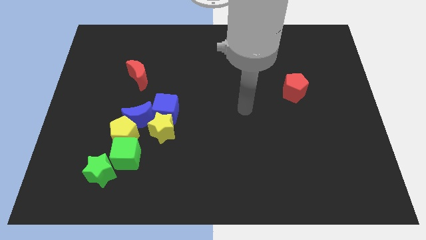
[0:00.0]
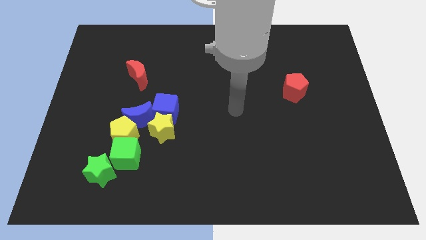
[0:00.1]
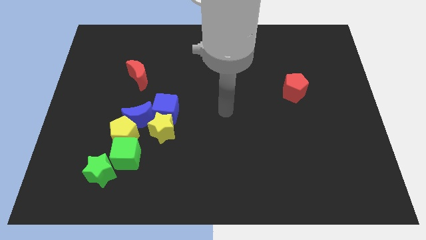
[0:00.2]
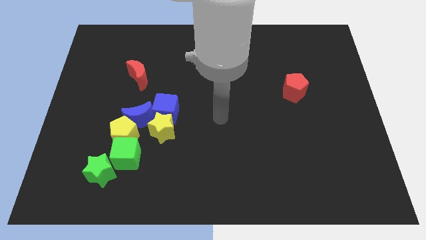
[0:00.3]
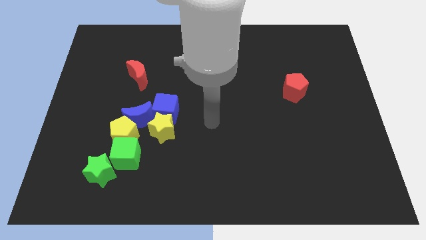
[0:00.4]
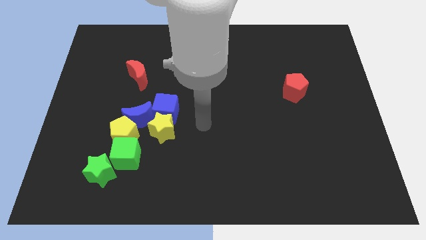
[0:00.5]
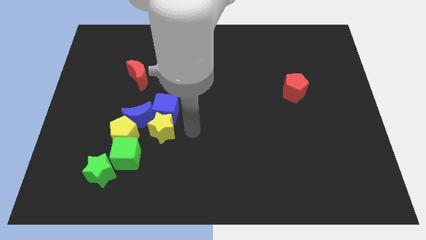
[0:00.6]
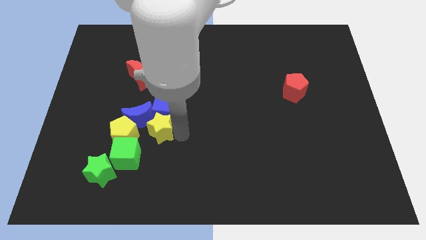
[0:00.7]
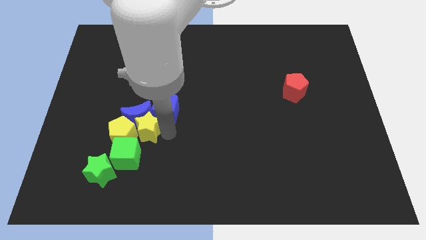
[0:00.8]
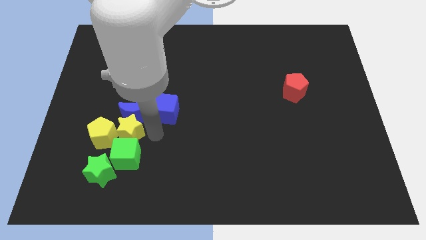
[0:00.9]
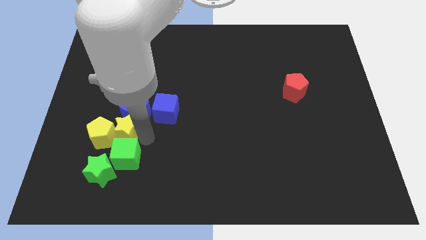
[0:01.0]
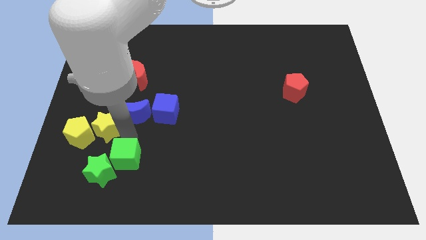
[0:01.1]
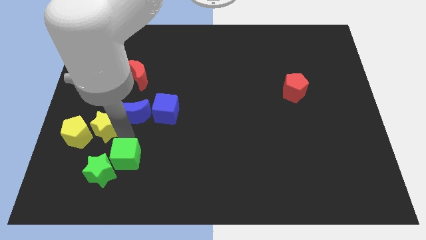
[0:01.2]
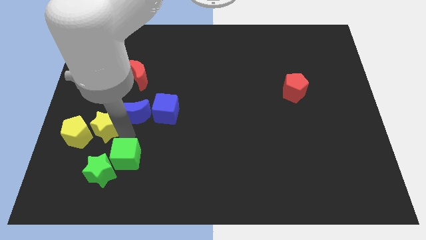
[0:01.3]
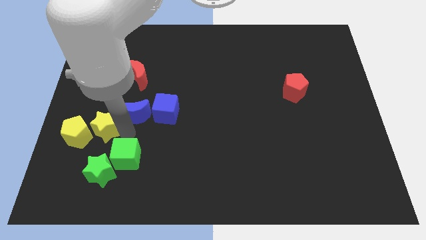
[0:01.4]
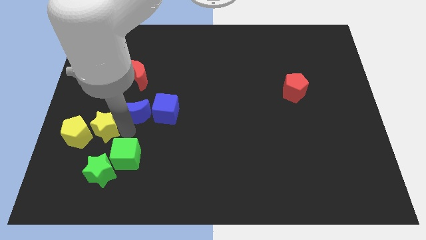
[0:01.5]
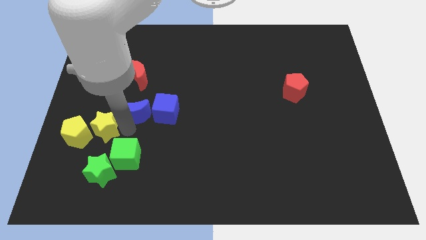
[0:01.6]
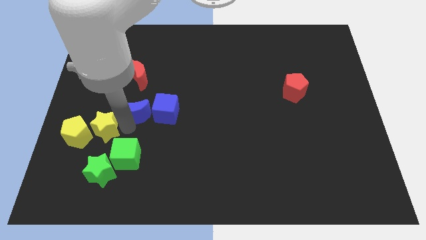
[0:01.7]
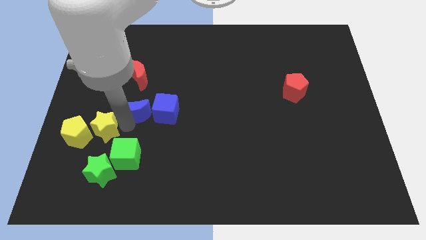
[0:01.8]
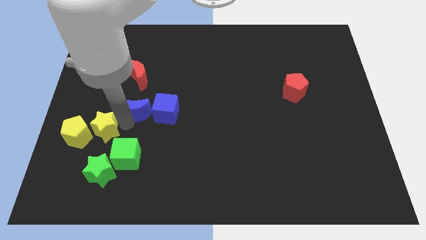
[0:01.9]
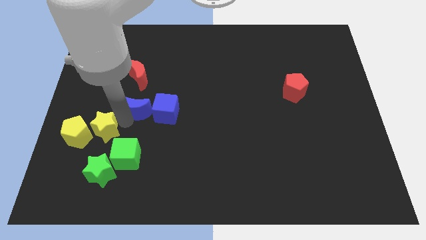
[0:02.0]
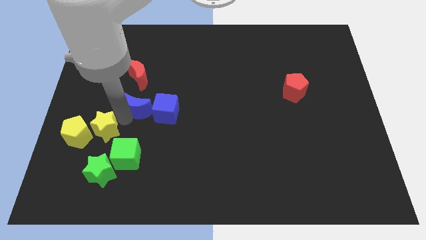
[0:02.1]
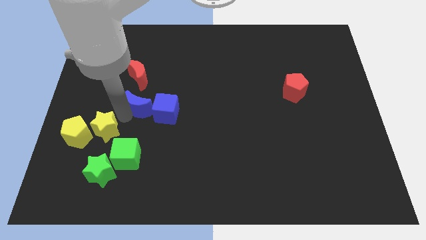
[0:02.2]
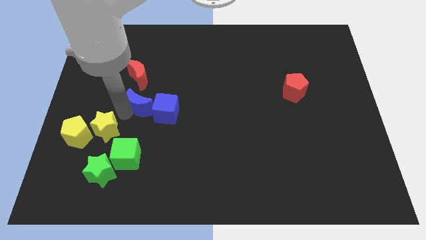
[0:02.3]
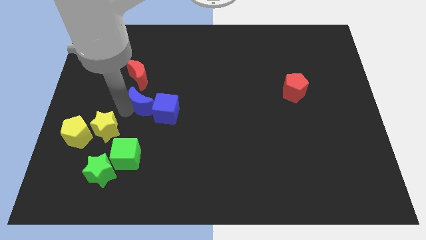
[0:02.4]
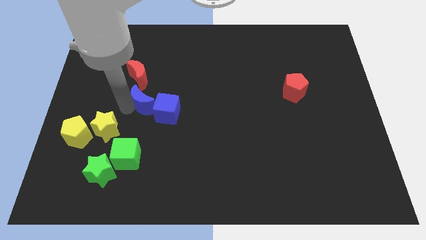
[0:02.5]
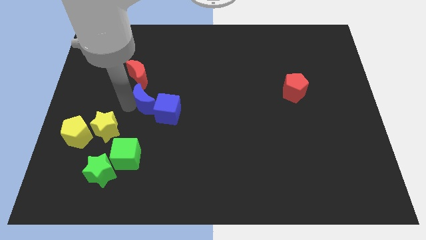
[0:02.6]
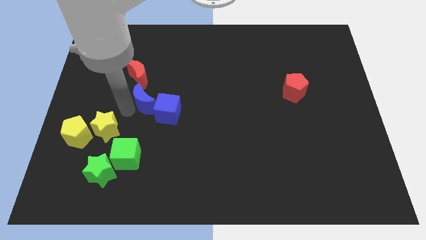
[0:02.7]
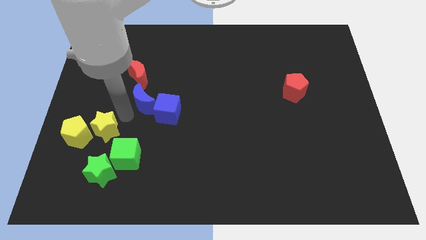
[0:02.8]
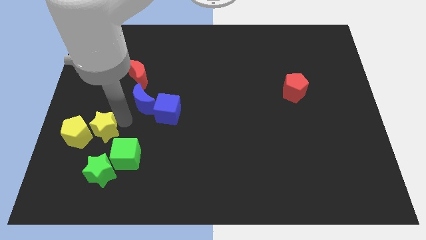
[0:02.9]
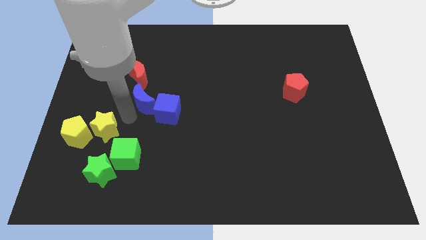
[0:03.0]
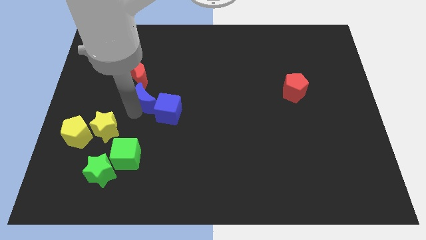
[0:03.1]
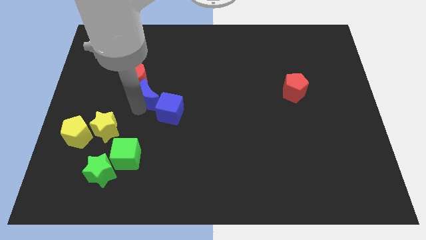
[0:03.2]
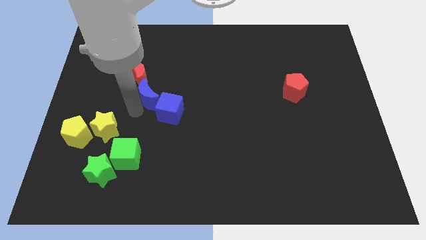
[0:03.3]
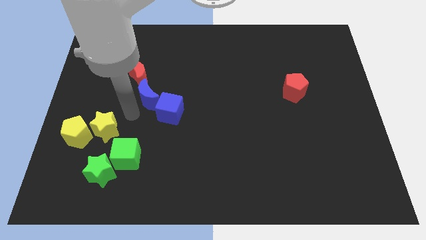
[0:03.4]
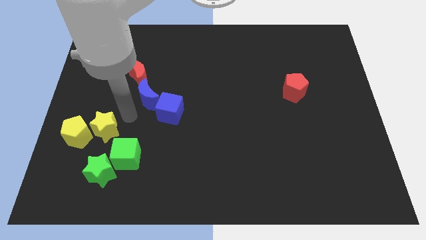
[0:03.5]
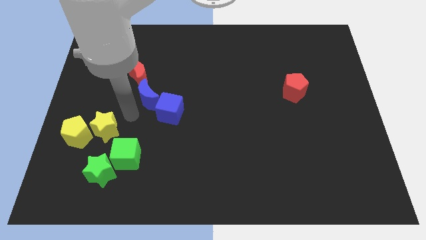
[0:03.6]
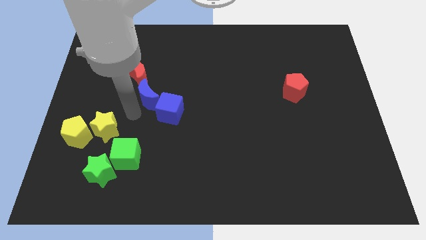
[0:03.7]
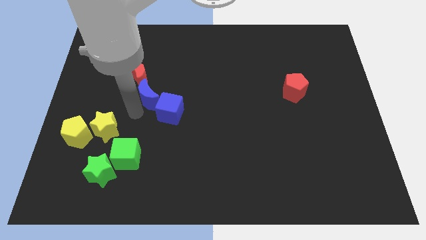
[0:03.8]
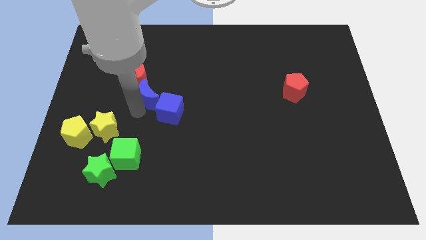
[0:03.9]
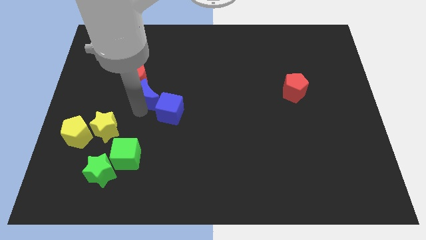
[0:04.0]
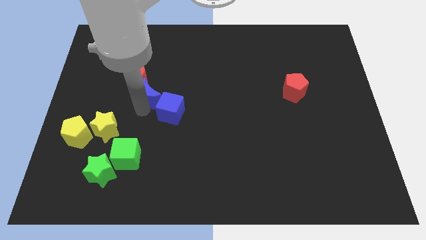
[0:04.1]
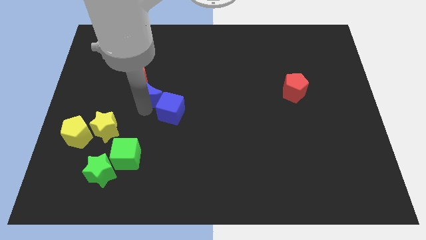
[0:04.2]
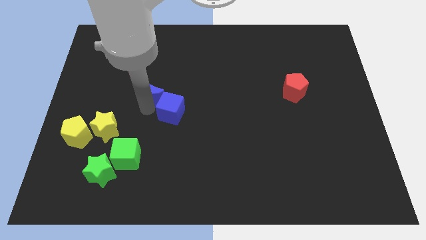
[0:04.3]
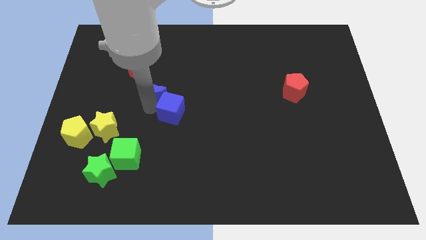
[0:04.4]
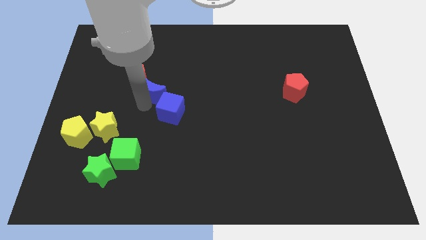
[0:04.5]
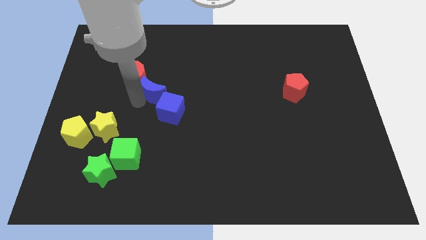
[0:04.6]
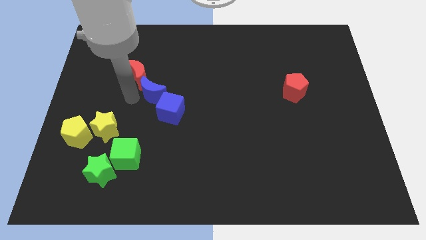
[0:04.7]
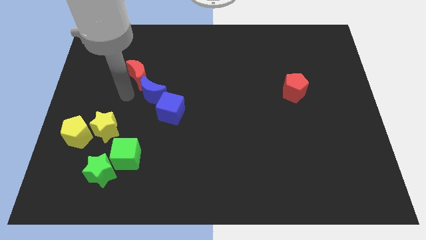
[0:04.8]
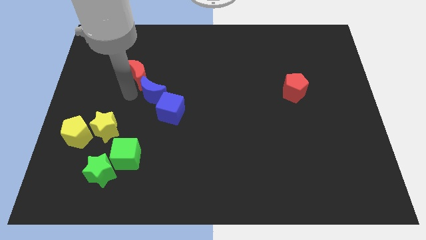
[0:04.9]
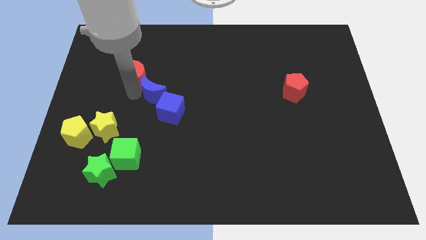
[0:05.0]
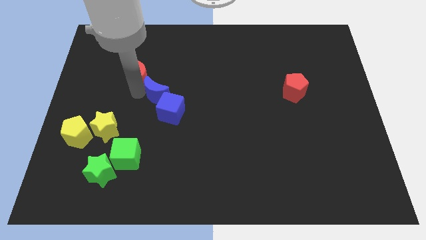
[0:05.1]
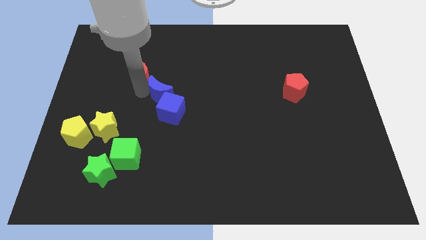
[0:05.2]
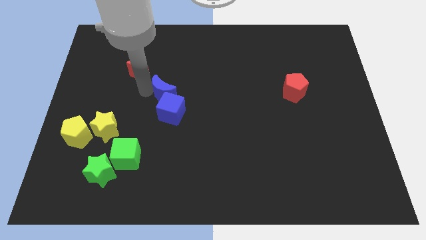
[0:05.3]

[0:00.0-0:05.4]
slide the blue moon to the middle
